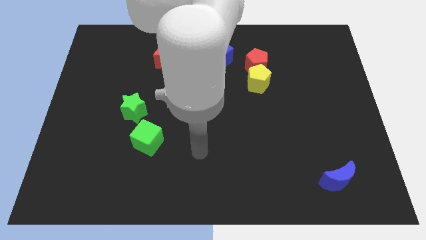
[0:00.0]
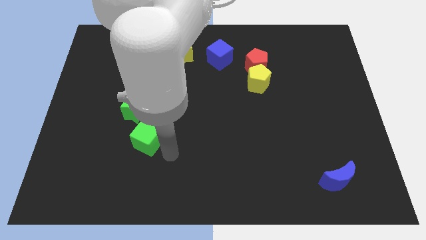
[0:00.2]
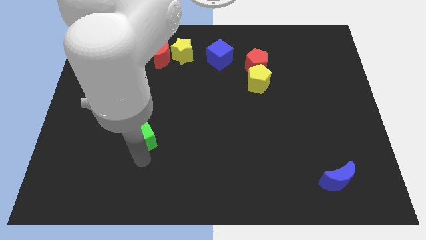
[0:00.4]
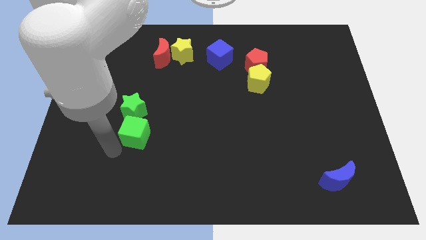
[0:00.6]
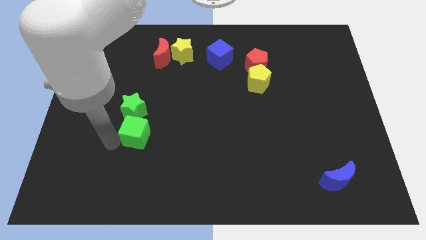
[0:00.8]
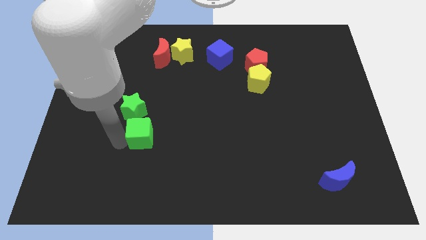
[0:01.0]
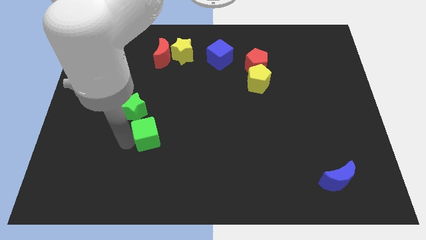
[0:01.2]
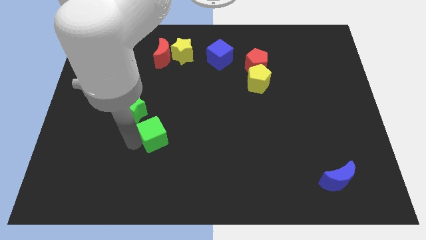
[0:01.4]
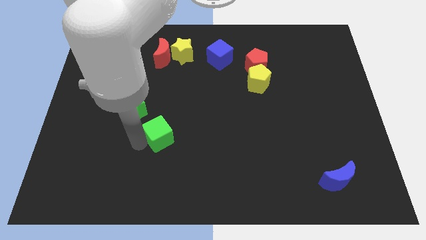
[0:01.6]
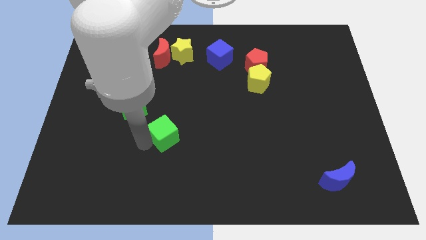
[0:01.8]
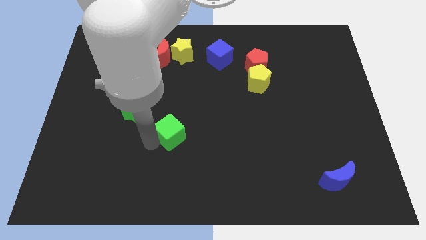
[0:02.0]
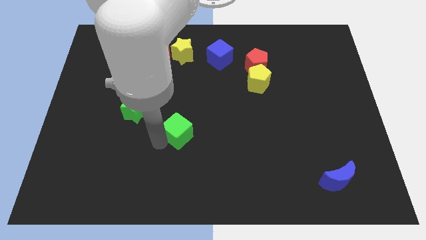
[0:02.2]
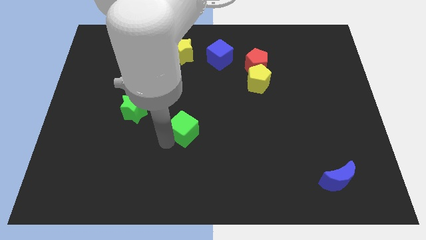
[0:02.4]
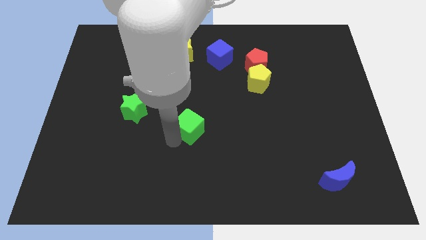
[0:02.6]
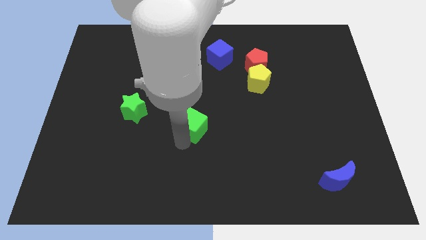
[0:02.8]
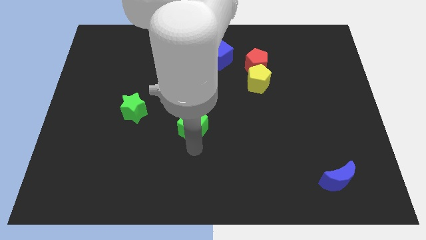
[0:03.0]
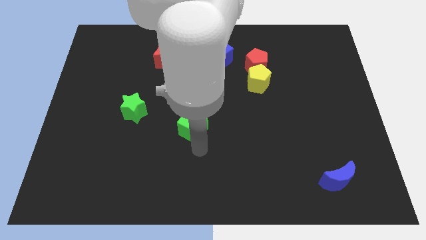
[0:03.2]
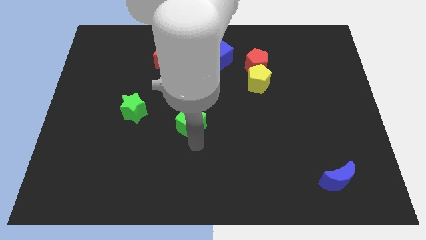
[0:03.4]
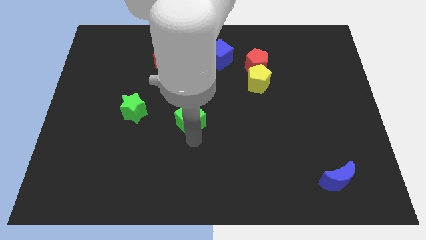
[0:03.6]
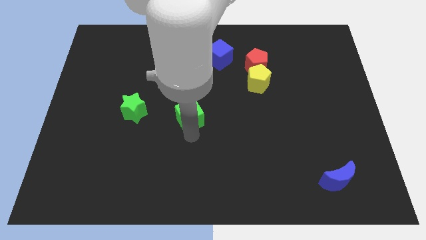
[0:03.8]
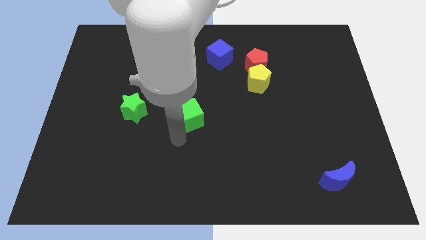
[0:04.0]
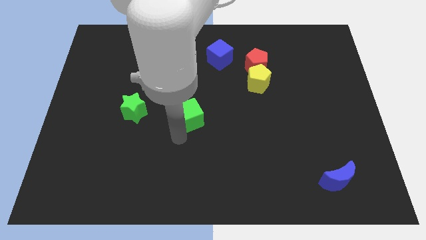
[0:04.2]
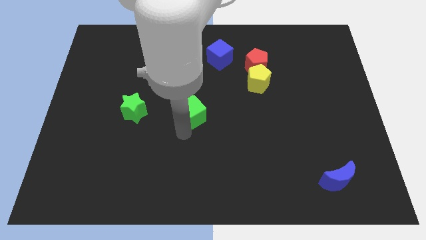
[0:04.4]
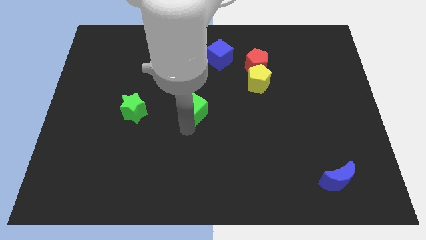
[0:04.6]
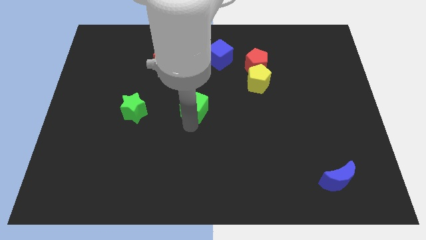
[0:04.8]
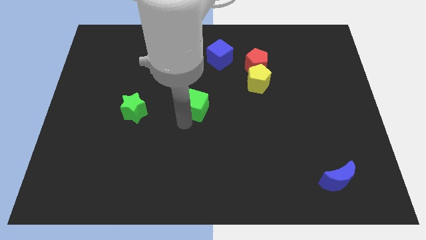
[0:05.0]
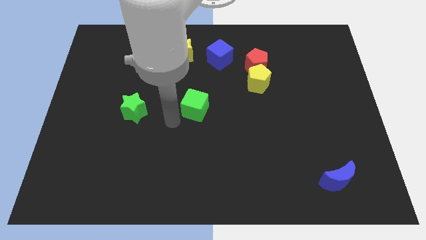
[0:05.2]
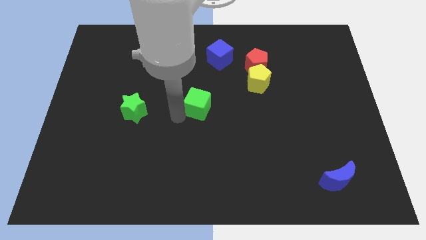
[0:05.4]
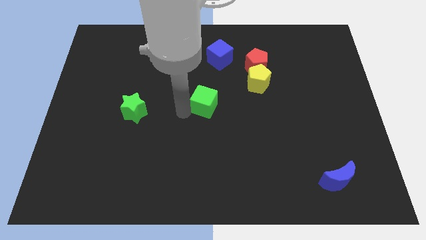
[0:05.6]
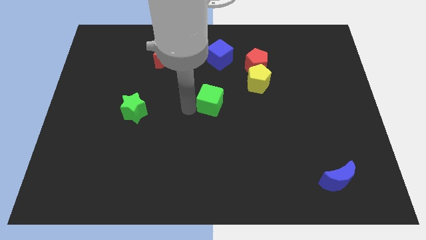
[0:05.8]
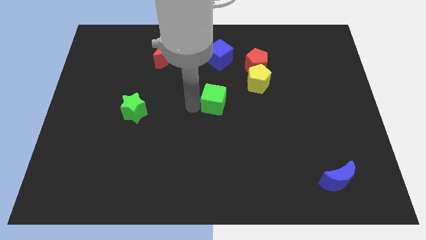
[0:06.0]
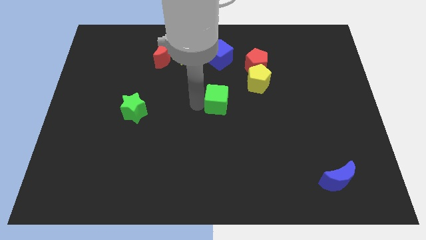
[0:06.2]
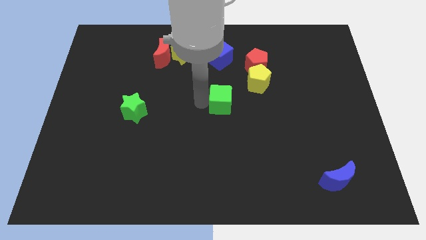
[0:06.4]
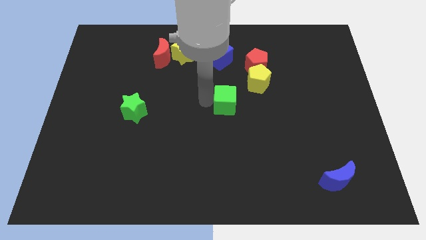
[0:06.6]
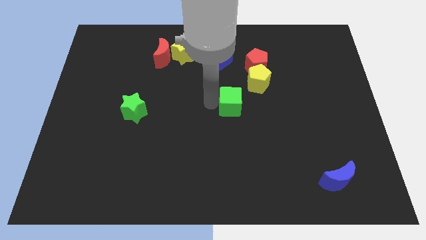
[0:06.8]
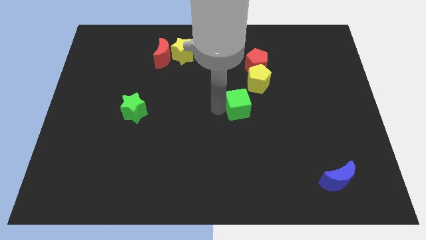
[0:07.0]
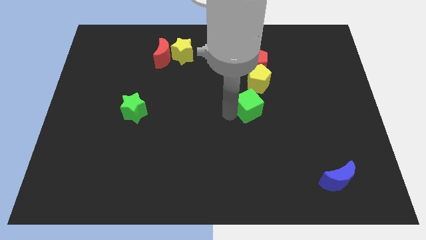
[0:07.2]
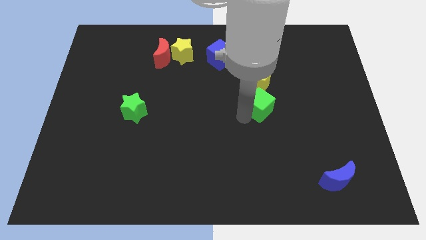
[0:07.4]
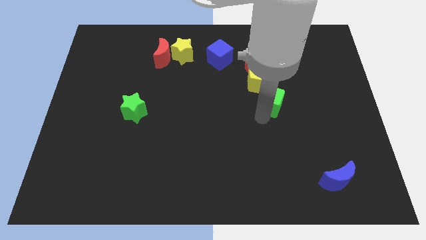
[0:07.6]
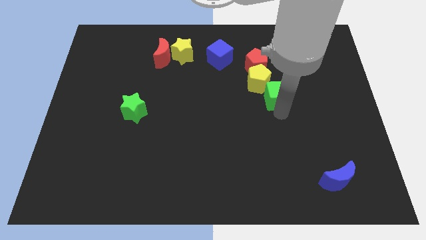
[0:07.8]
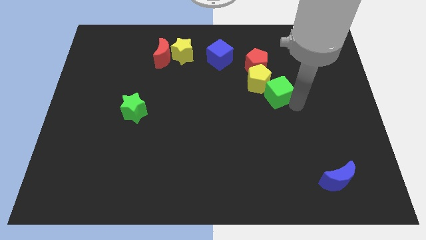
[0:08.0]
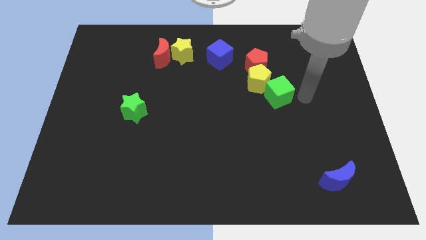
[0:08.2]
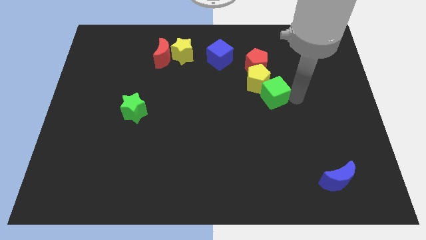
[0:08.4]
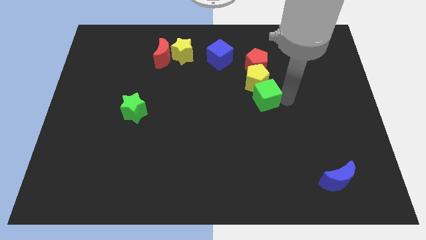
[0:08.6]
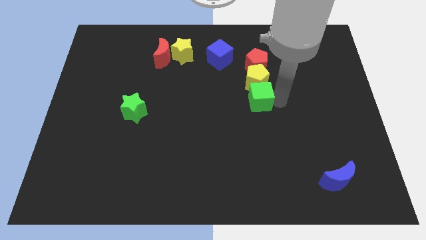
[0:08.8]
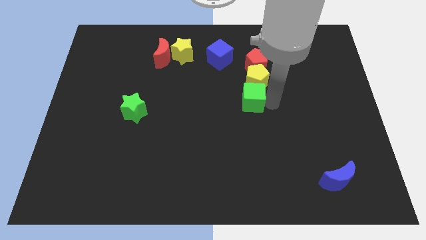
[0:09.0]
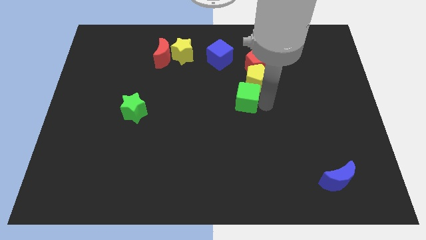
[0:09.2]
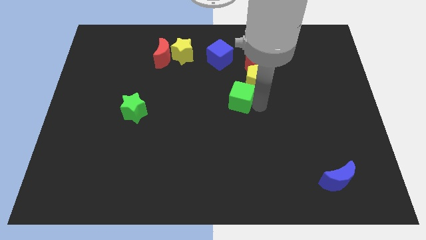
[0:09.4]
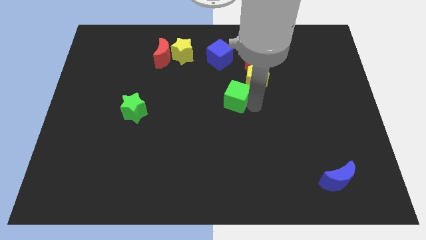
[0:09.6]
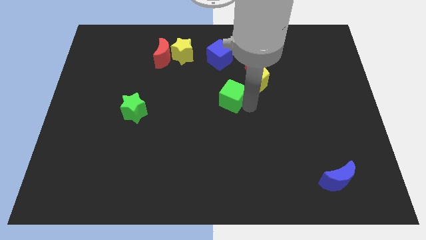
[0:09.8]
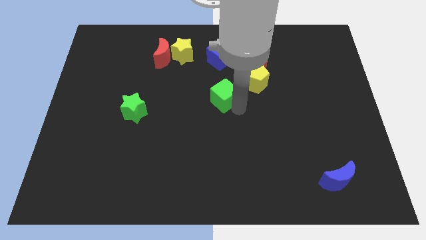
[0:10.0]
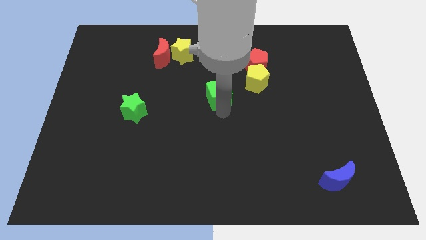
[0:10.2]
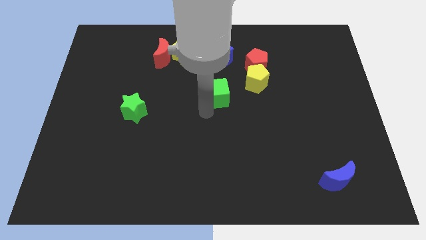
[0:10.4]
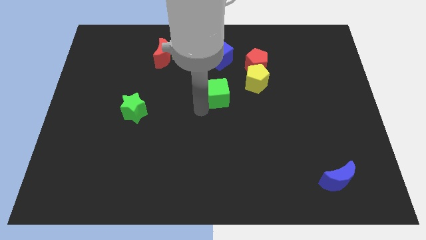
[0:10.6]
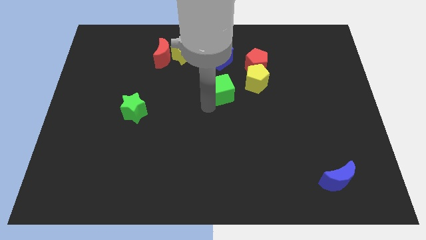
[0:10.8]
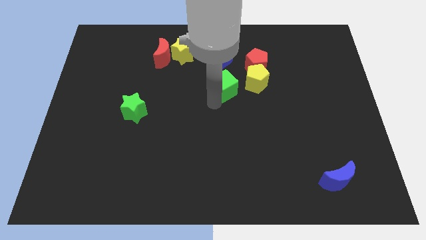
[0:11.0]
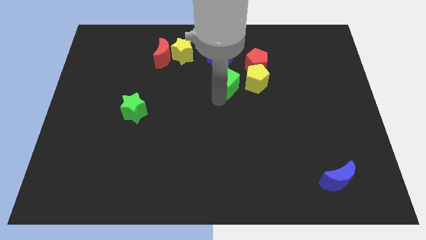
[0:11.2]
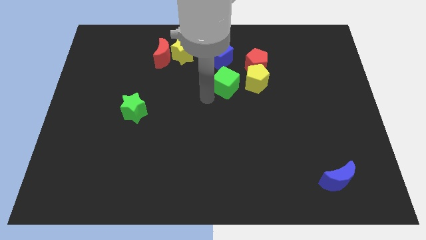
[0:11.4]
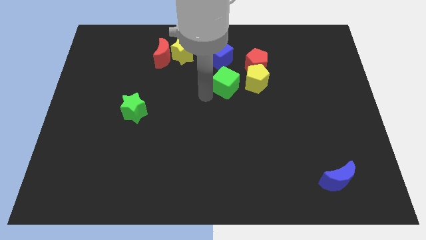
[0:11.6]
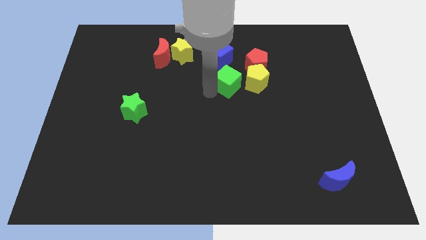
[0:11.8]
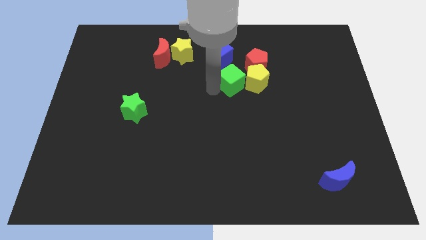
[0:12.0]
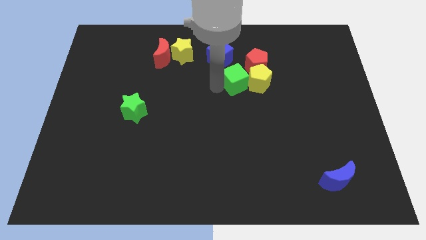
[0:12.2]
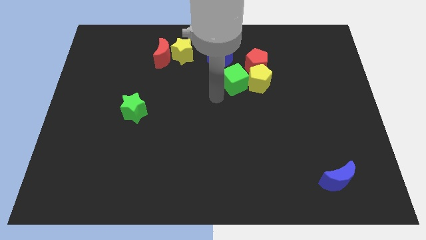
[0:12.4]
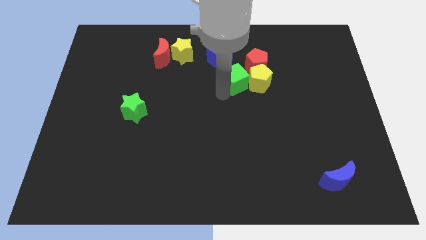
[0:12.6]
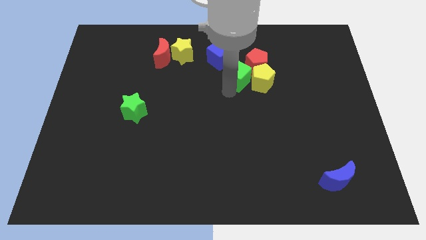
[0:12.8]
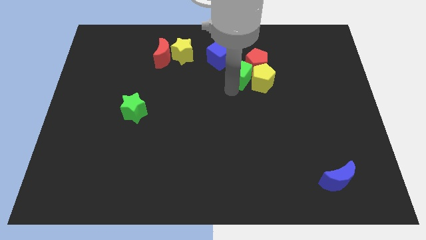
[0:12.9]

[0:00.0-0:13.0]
put the green cube towards the red pentagon

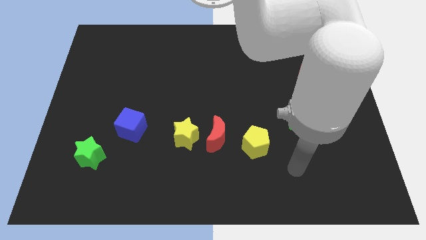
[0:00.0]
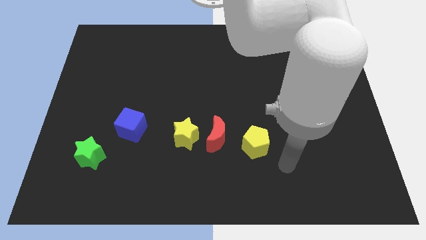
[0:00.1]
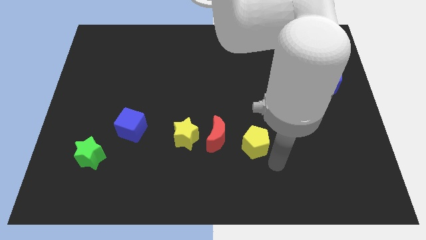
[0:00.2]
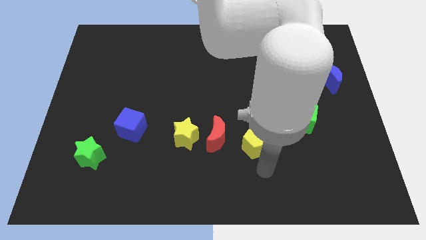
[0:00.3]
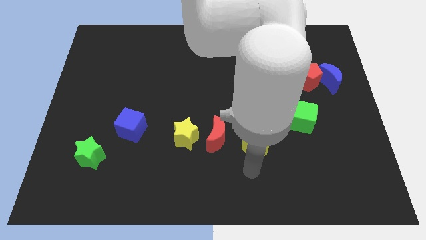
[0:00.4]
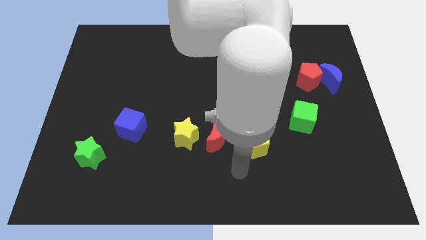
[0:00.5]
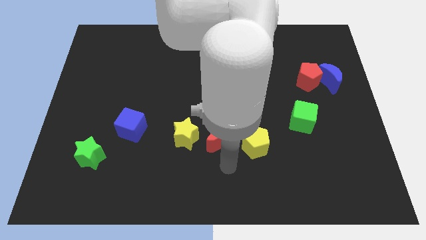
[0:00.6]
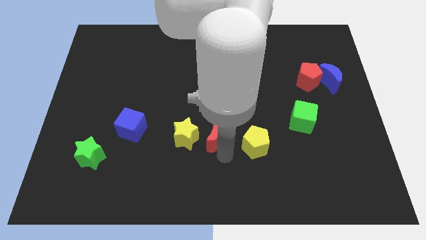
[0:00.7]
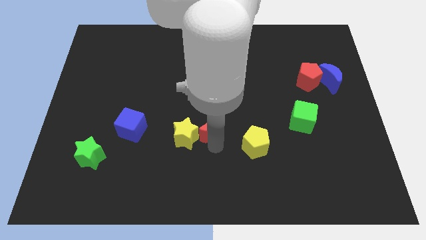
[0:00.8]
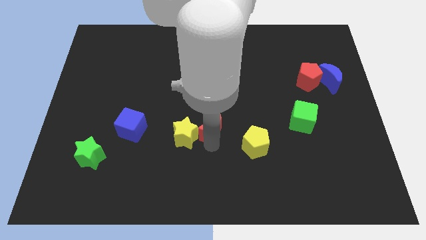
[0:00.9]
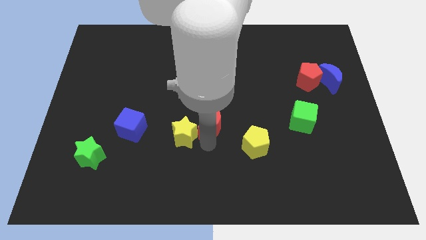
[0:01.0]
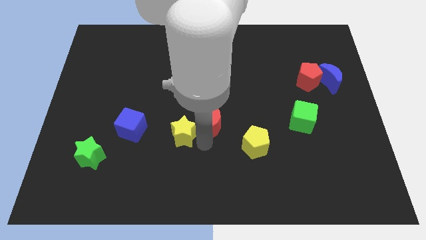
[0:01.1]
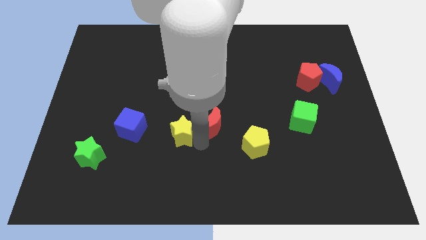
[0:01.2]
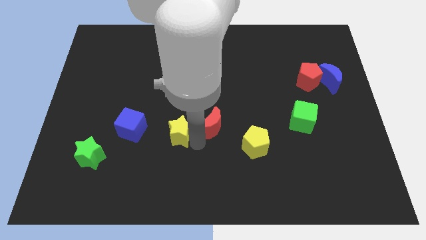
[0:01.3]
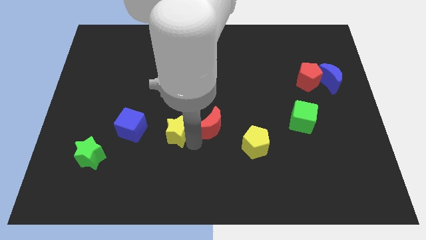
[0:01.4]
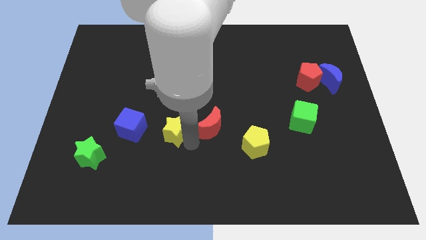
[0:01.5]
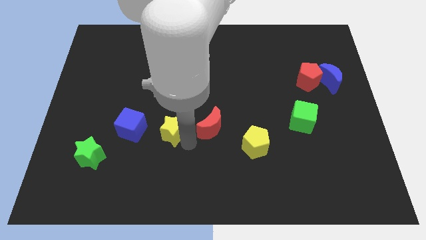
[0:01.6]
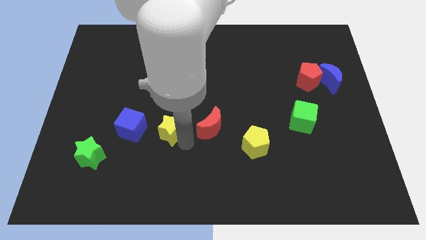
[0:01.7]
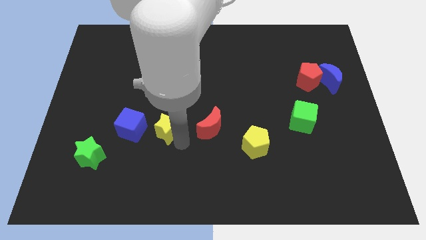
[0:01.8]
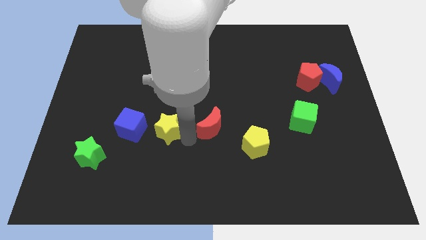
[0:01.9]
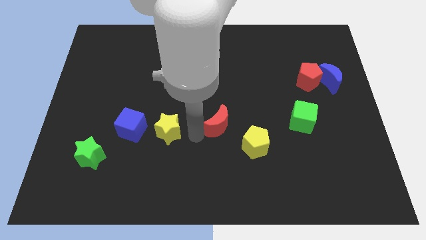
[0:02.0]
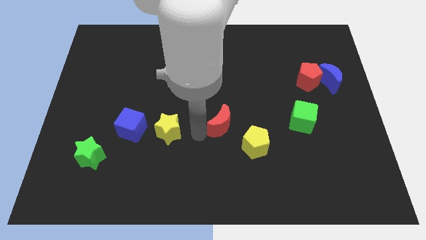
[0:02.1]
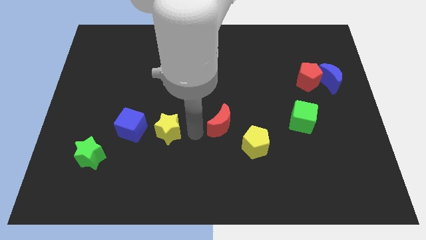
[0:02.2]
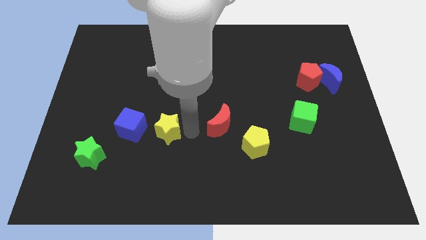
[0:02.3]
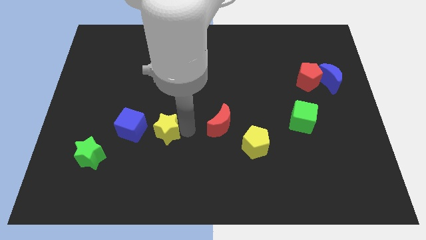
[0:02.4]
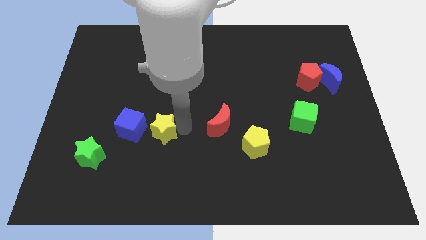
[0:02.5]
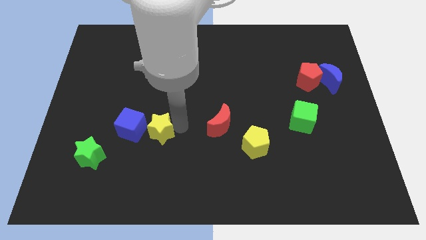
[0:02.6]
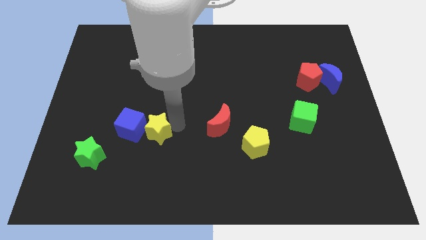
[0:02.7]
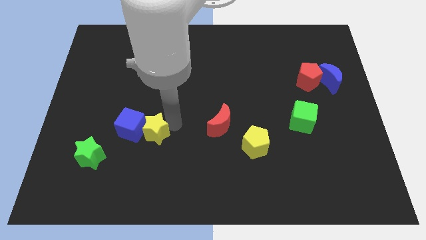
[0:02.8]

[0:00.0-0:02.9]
put the yellow star close to the blue cube
